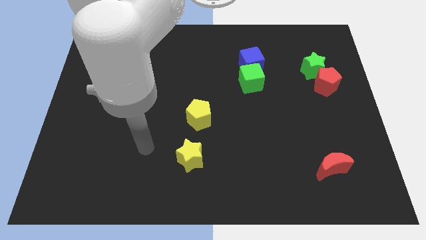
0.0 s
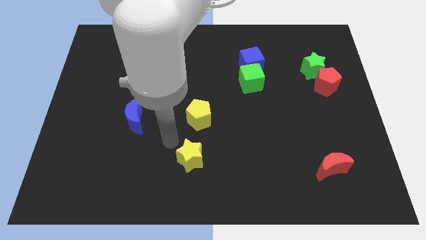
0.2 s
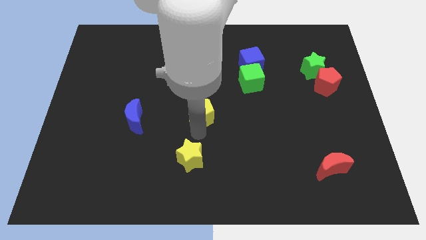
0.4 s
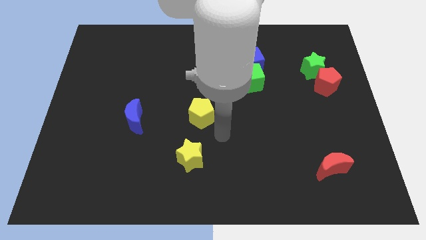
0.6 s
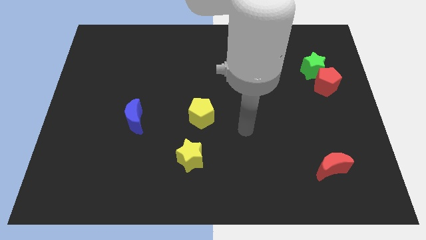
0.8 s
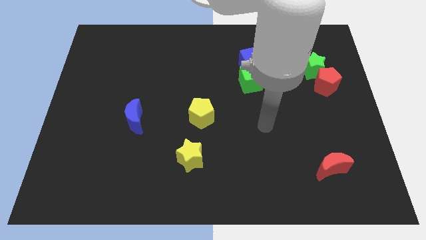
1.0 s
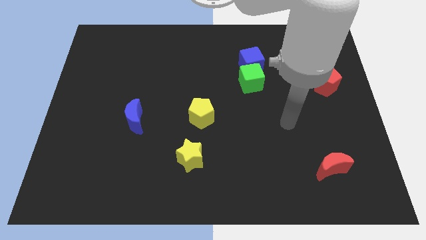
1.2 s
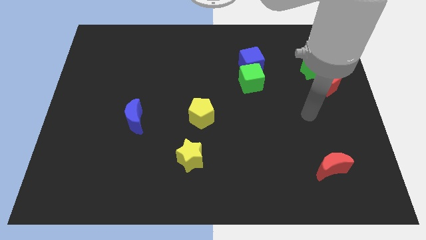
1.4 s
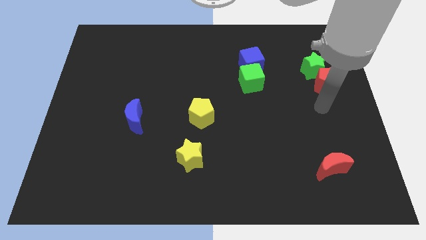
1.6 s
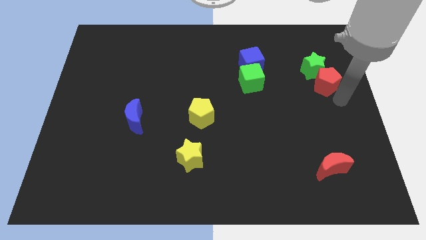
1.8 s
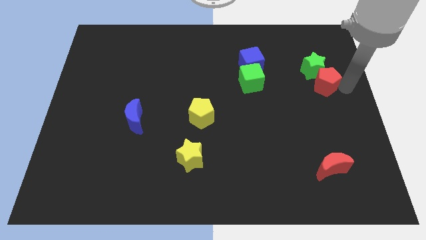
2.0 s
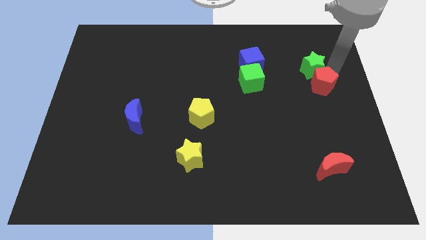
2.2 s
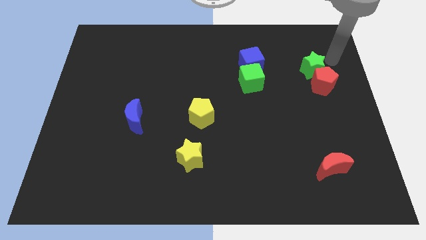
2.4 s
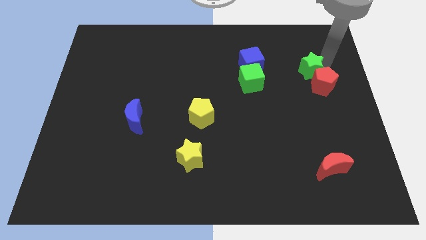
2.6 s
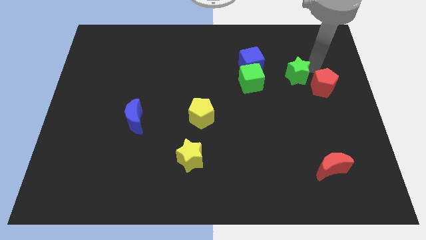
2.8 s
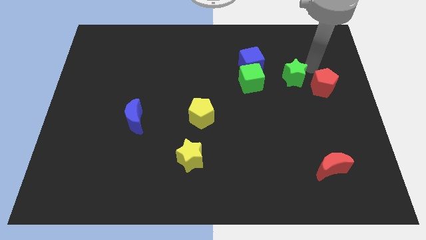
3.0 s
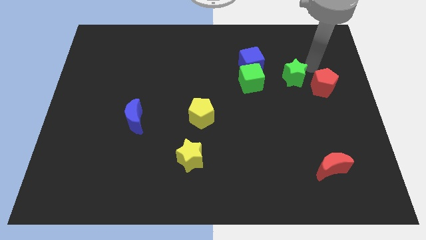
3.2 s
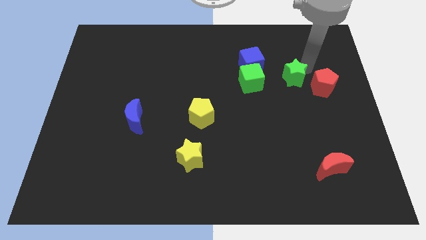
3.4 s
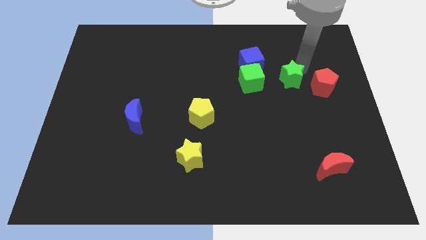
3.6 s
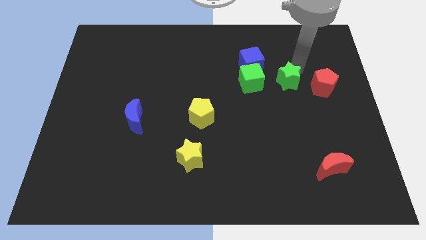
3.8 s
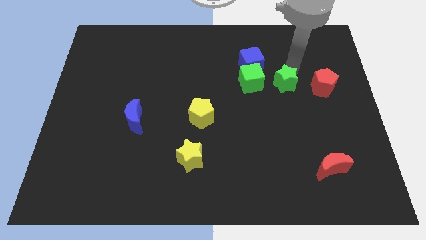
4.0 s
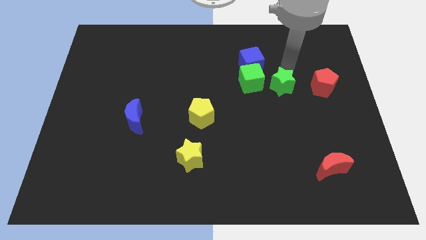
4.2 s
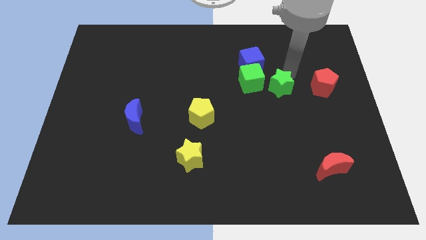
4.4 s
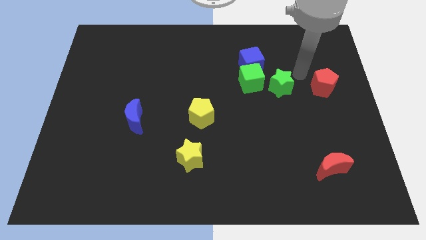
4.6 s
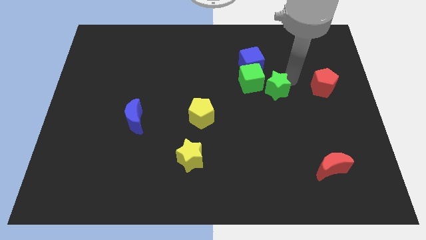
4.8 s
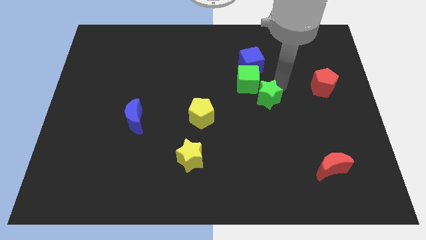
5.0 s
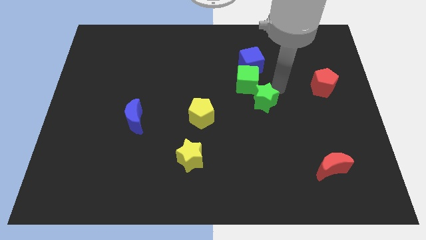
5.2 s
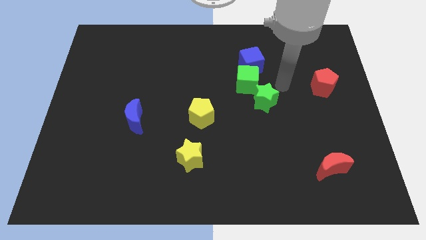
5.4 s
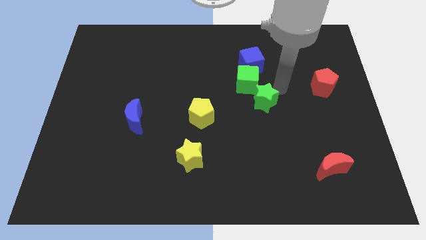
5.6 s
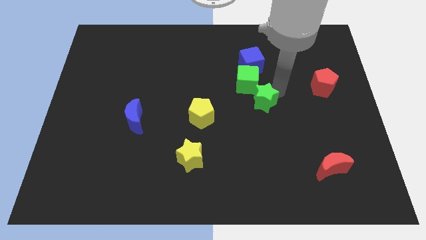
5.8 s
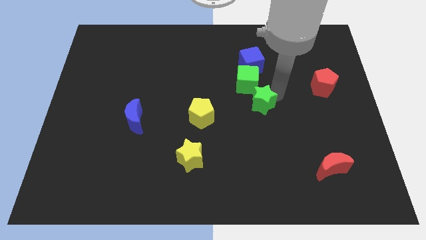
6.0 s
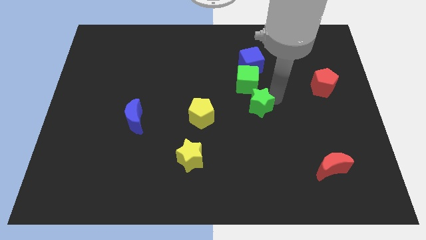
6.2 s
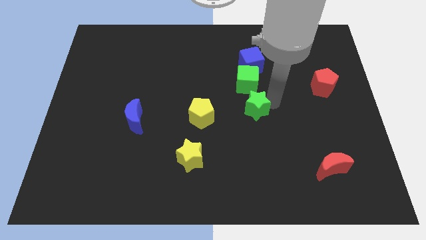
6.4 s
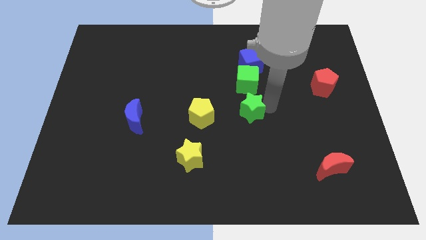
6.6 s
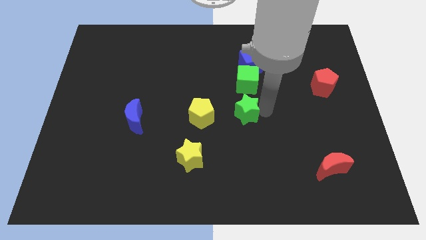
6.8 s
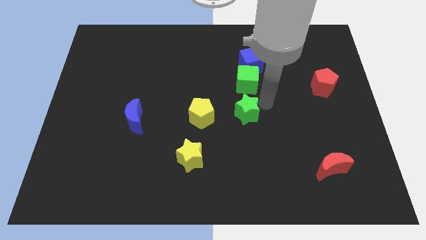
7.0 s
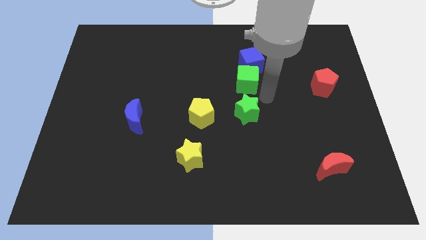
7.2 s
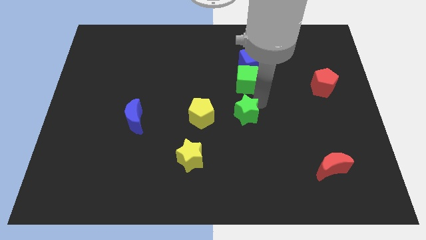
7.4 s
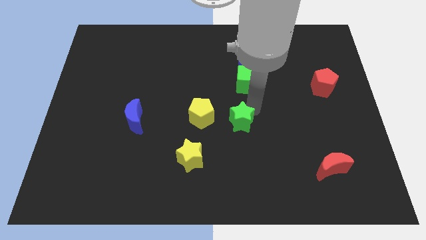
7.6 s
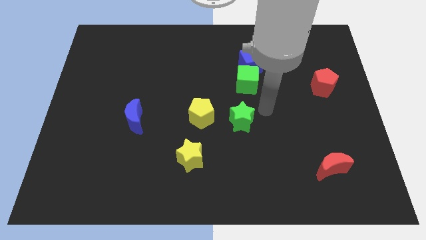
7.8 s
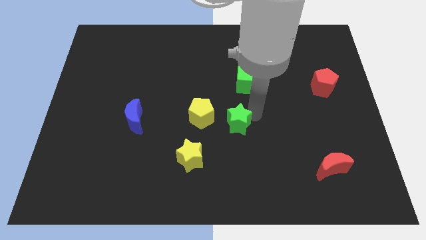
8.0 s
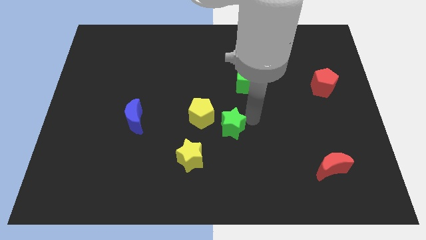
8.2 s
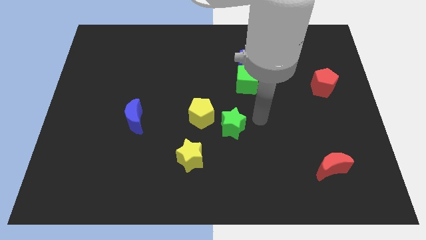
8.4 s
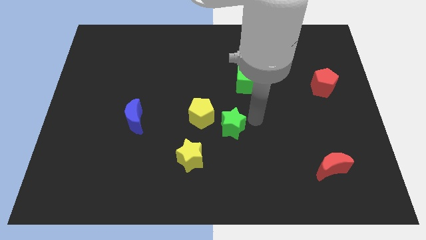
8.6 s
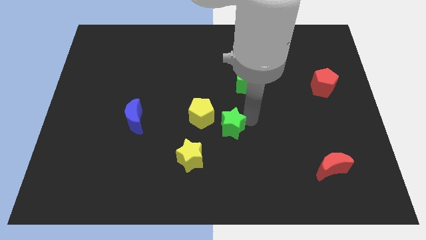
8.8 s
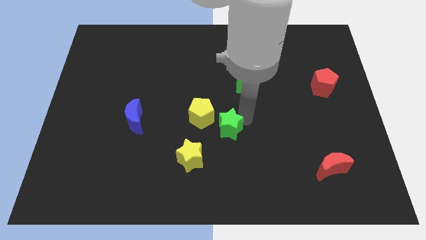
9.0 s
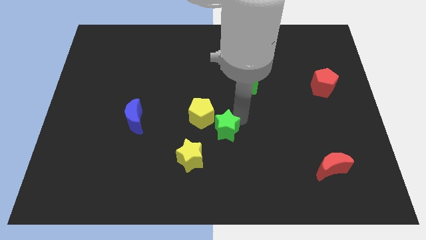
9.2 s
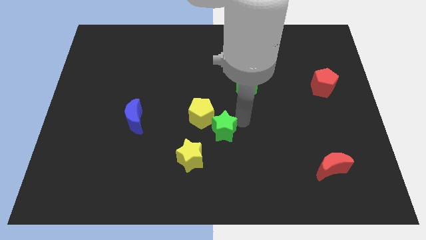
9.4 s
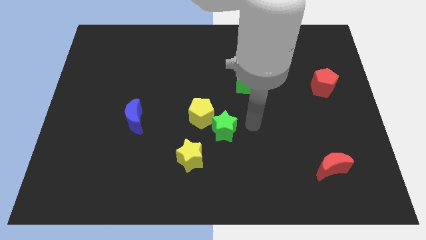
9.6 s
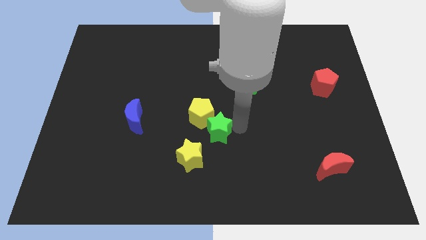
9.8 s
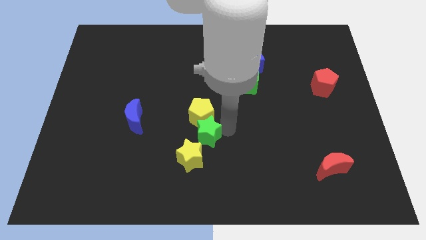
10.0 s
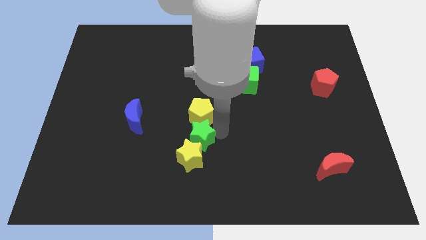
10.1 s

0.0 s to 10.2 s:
move the green star diagonally down and to the left of the yellow pentagon

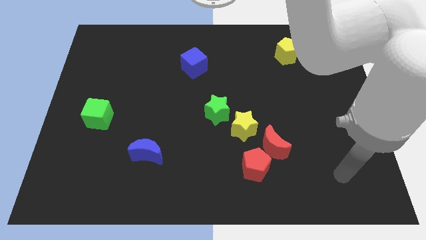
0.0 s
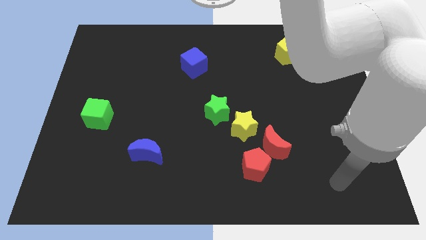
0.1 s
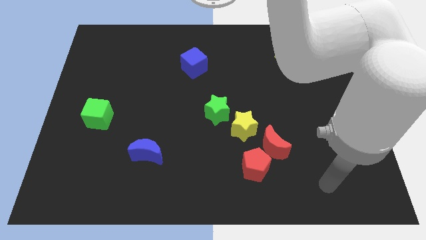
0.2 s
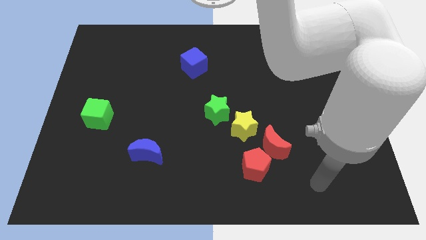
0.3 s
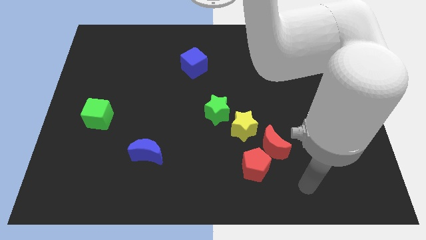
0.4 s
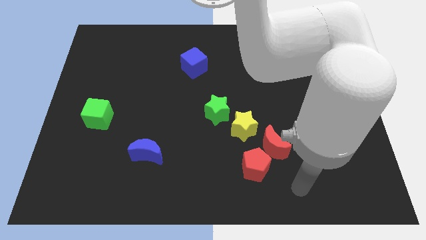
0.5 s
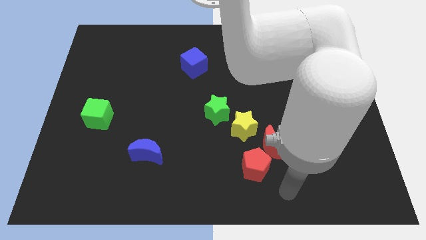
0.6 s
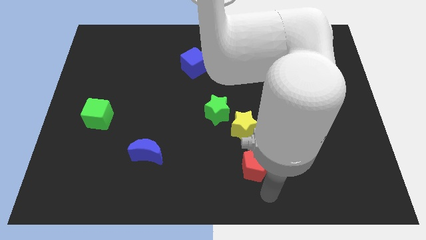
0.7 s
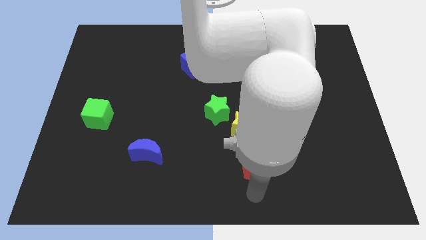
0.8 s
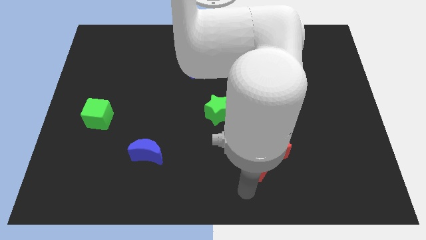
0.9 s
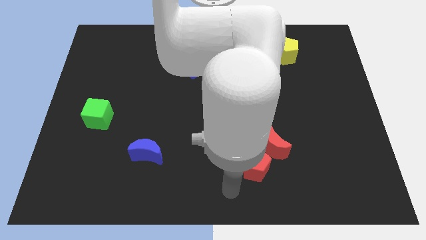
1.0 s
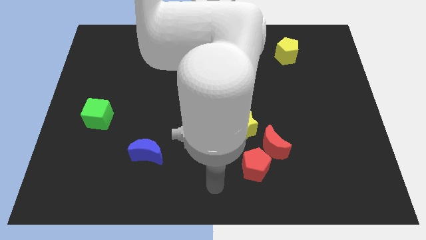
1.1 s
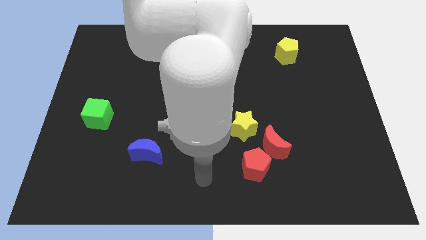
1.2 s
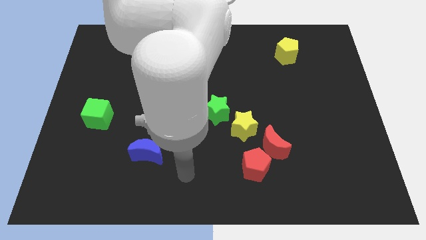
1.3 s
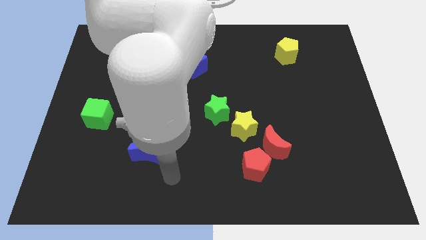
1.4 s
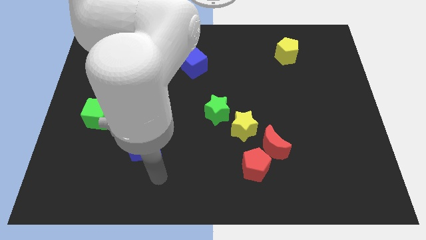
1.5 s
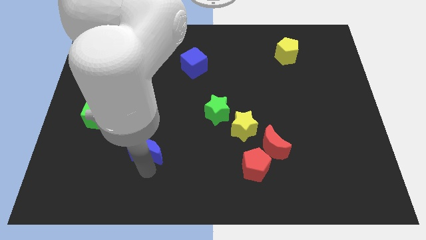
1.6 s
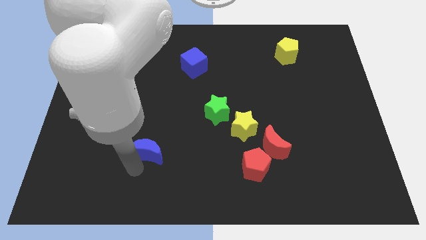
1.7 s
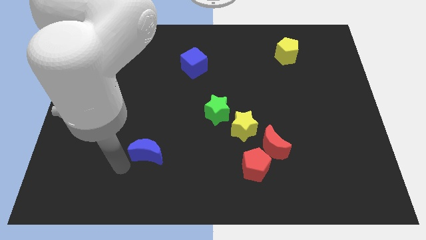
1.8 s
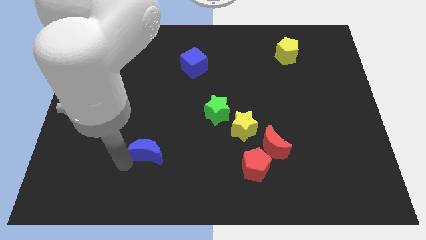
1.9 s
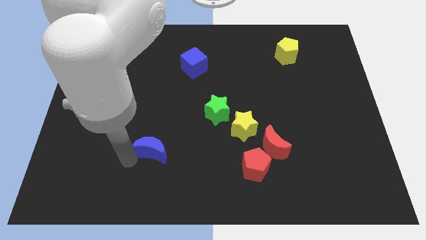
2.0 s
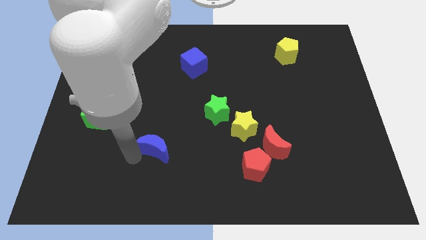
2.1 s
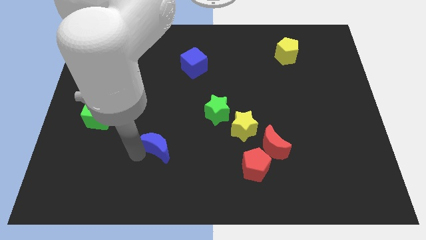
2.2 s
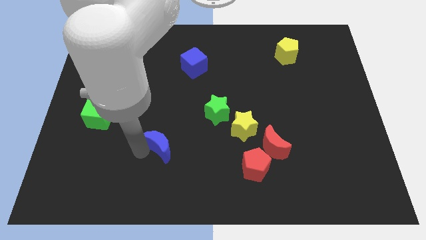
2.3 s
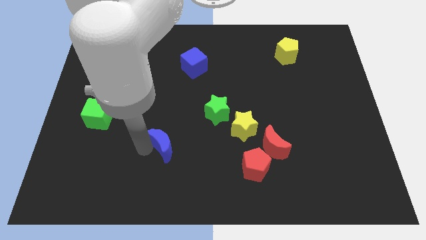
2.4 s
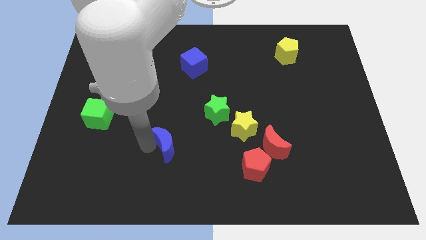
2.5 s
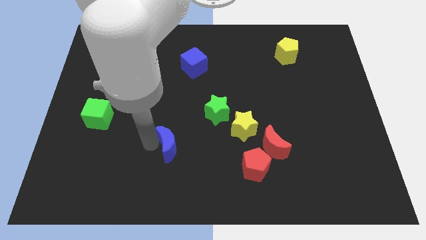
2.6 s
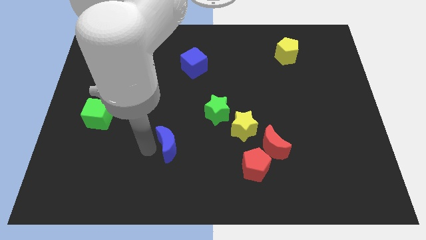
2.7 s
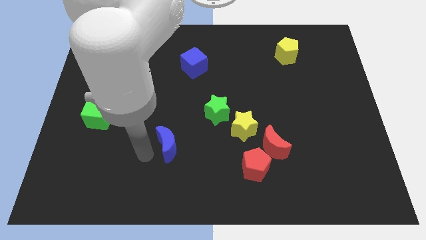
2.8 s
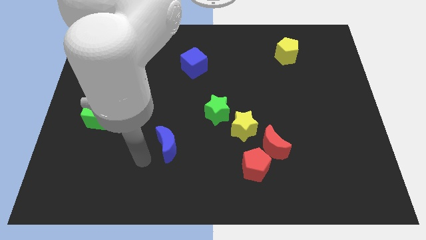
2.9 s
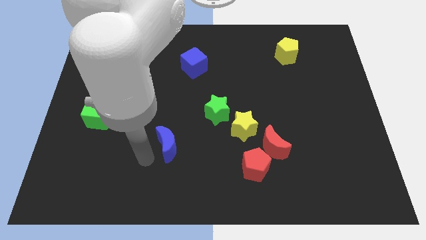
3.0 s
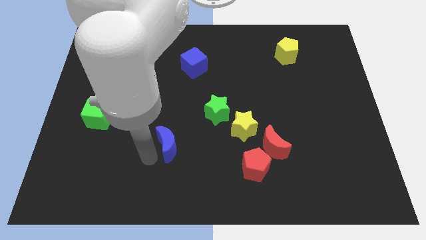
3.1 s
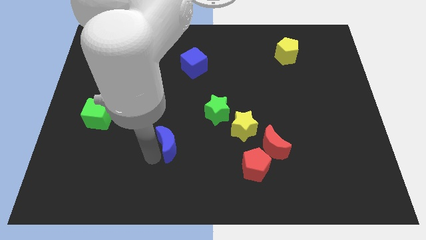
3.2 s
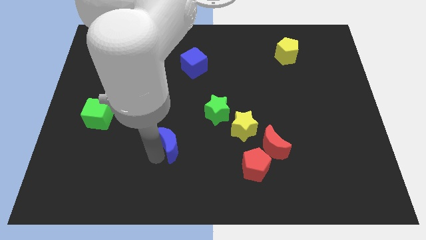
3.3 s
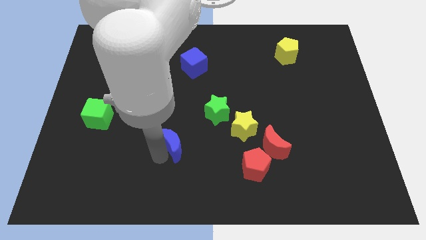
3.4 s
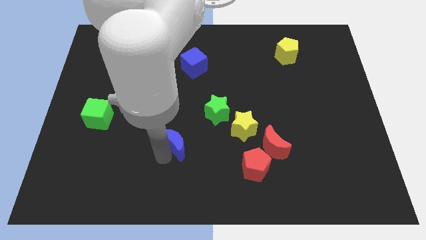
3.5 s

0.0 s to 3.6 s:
slide the blue moon to the bottom left of the green star
